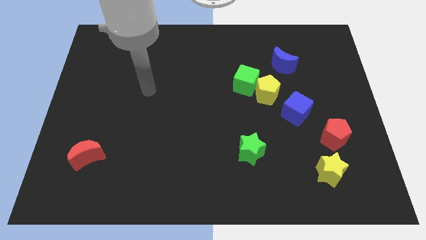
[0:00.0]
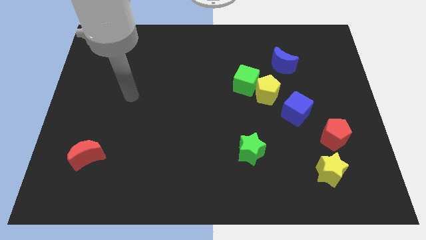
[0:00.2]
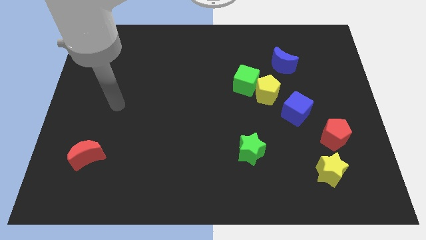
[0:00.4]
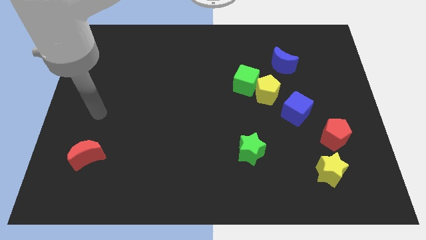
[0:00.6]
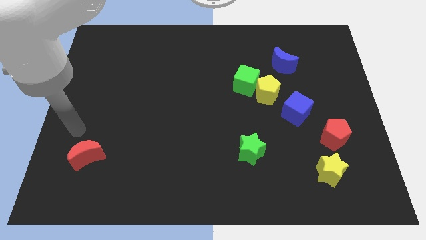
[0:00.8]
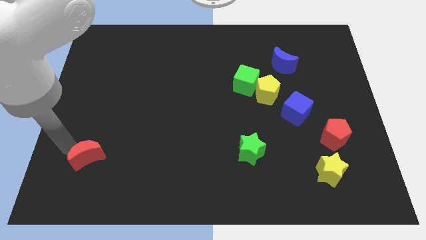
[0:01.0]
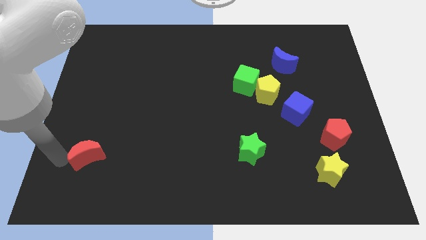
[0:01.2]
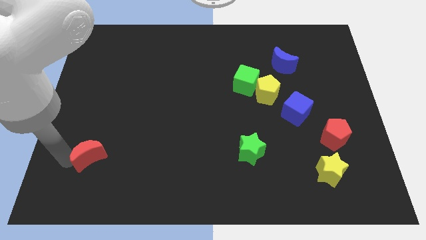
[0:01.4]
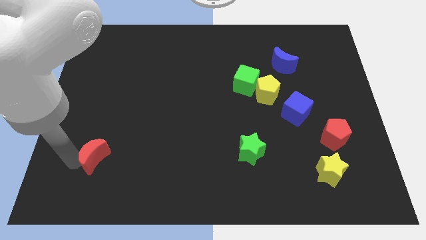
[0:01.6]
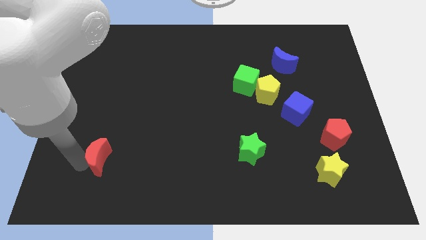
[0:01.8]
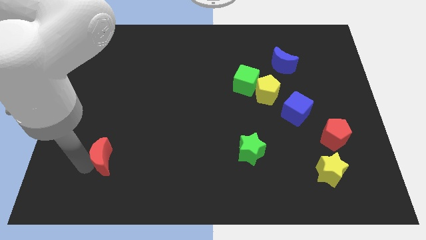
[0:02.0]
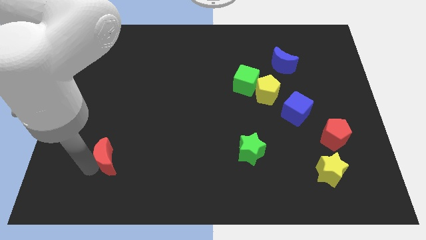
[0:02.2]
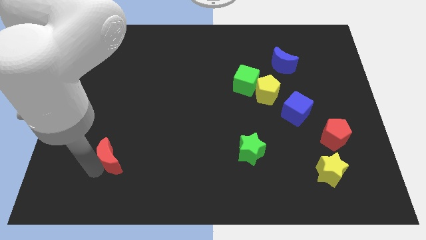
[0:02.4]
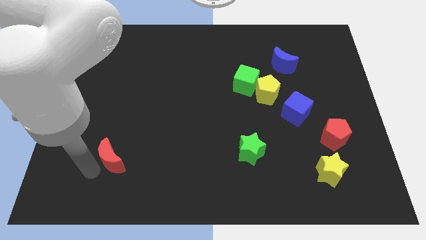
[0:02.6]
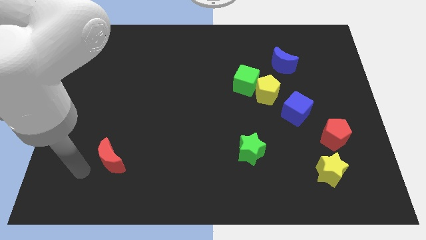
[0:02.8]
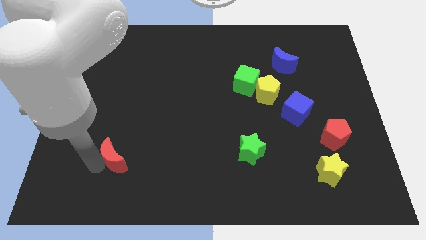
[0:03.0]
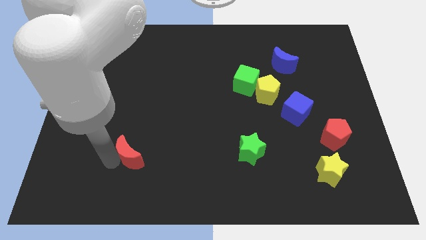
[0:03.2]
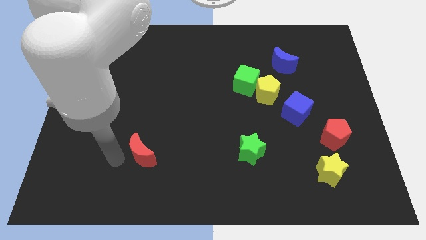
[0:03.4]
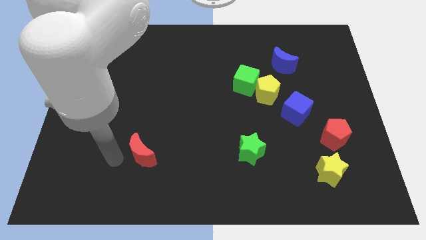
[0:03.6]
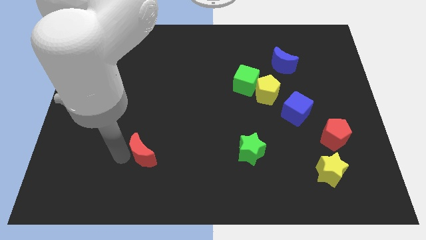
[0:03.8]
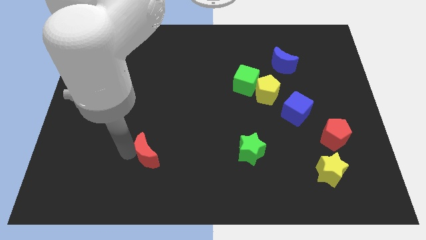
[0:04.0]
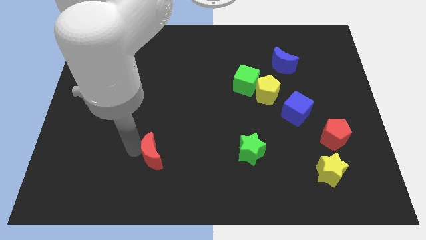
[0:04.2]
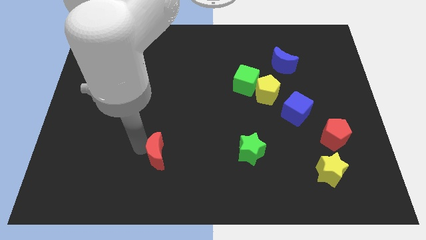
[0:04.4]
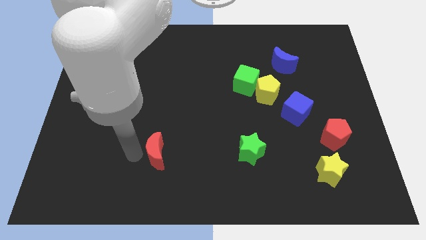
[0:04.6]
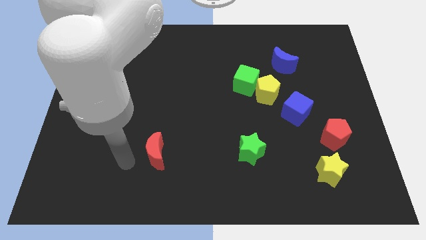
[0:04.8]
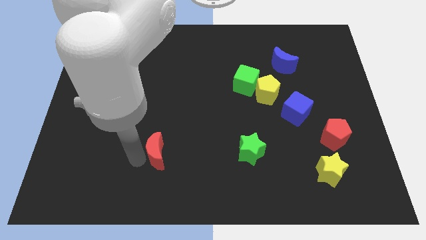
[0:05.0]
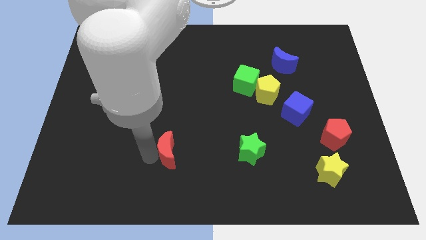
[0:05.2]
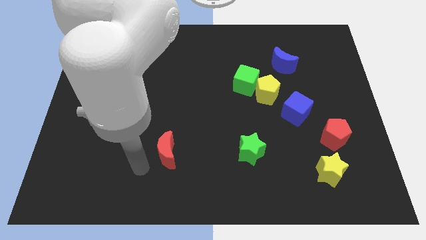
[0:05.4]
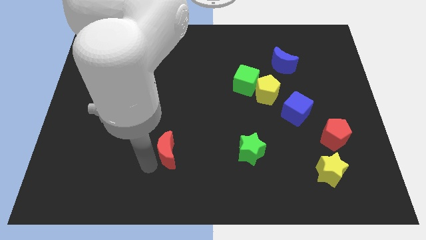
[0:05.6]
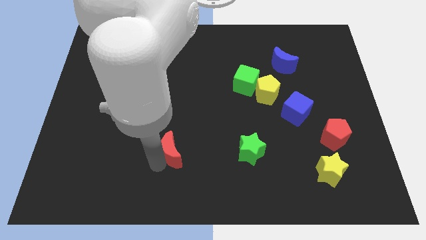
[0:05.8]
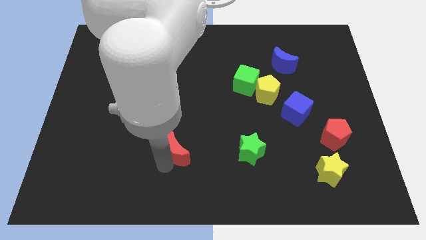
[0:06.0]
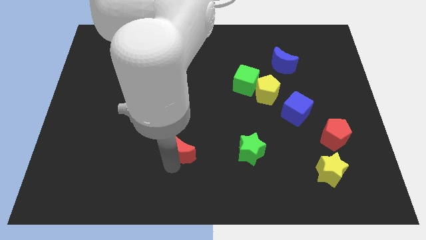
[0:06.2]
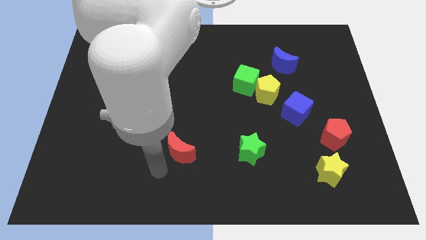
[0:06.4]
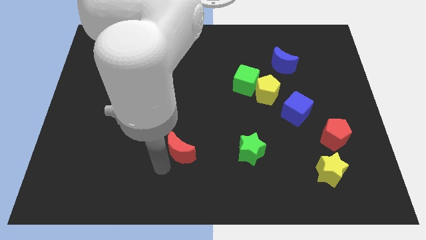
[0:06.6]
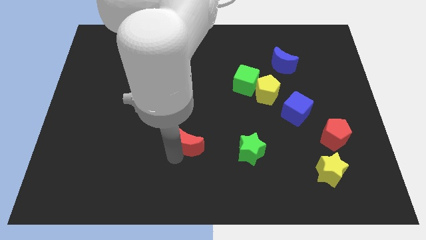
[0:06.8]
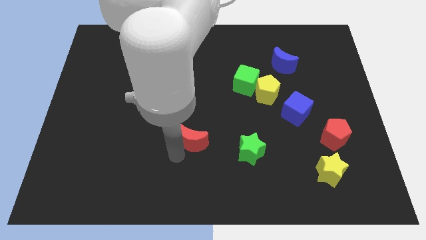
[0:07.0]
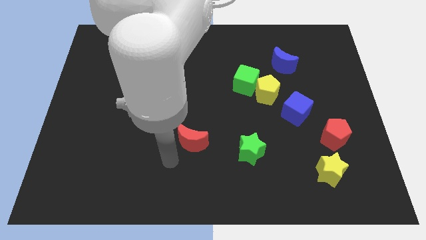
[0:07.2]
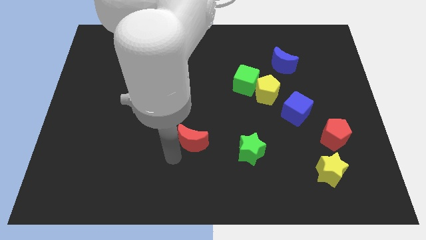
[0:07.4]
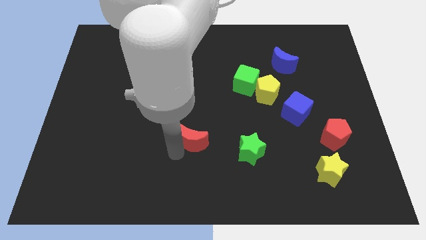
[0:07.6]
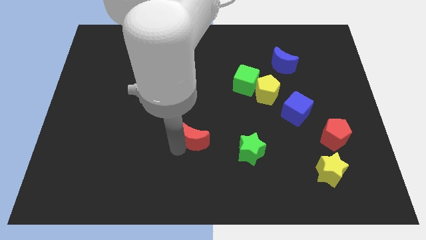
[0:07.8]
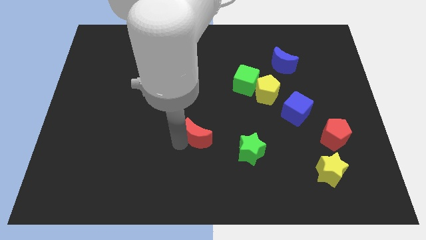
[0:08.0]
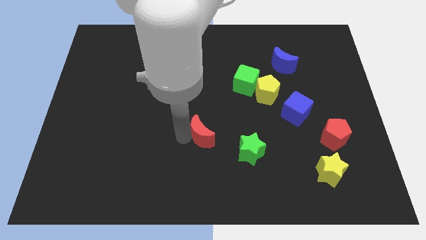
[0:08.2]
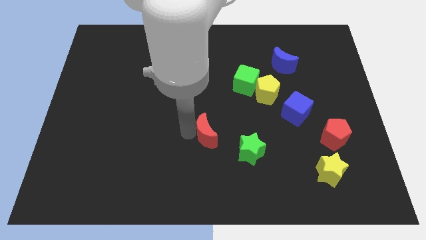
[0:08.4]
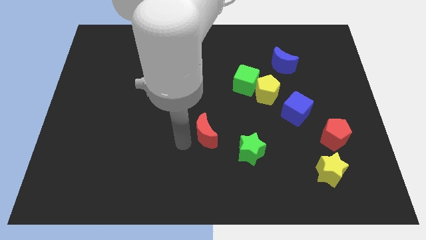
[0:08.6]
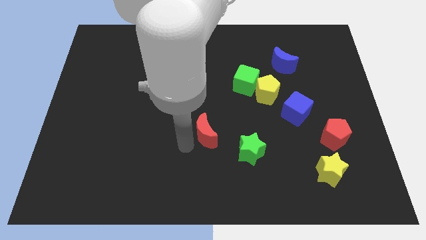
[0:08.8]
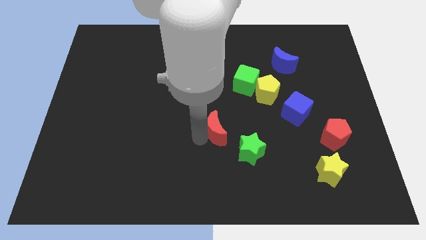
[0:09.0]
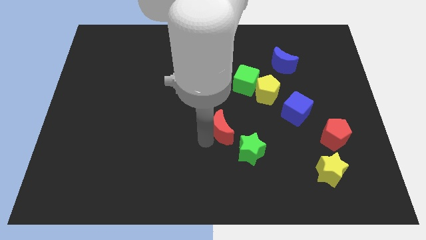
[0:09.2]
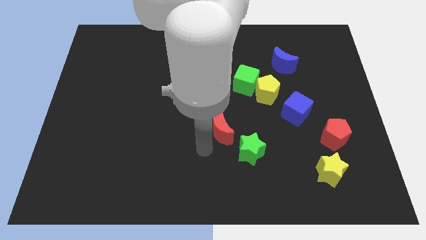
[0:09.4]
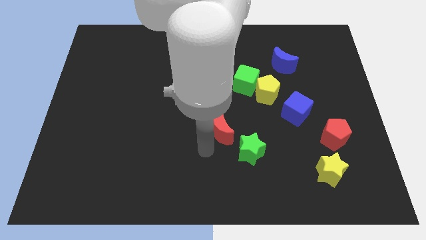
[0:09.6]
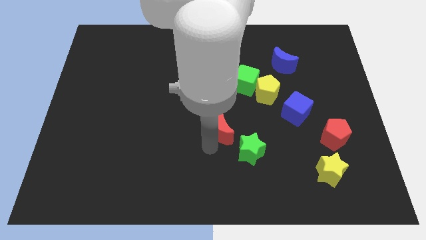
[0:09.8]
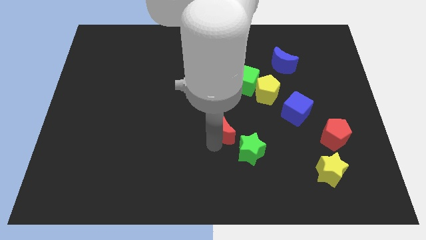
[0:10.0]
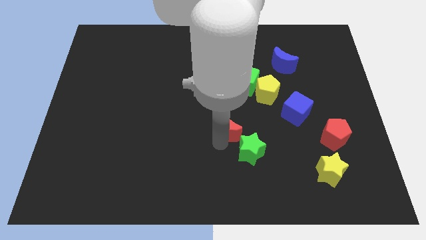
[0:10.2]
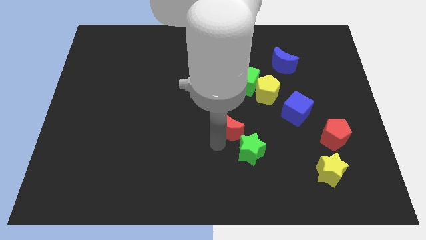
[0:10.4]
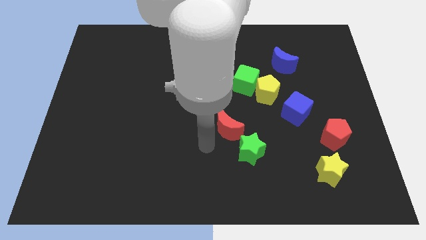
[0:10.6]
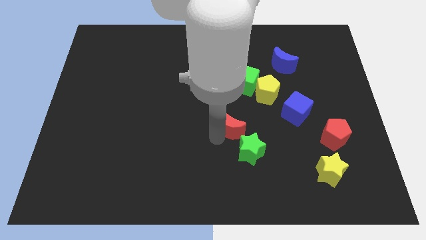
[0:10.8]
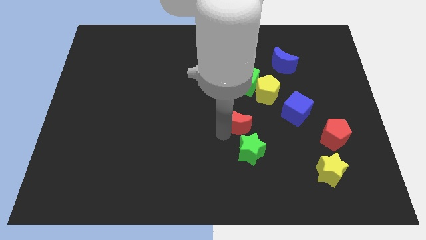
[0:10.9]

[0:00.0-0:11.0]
push the red moon left of the blue cube

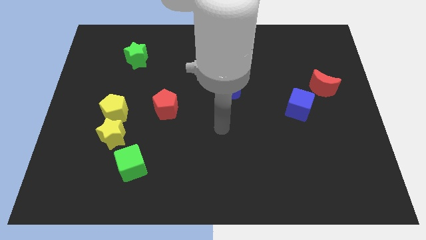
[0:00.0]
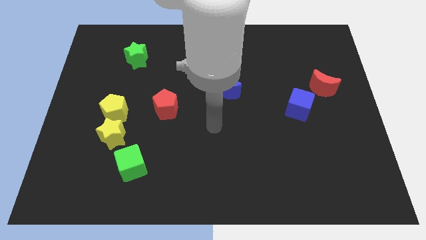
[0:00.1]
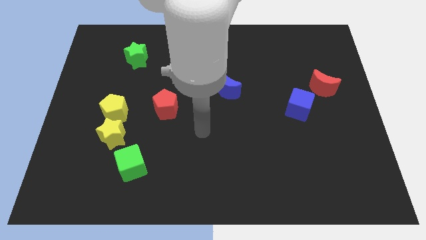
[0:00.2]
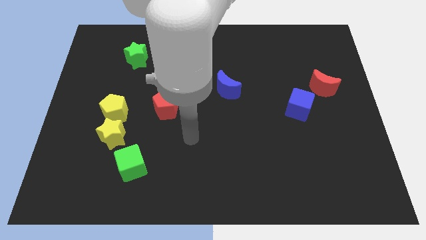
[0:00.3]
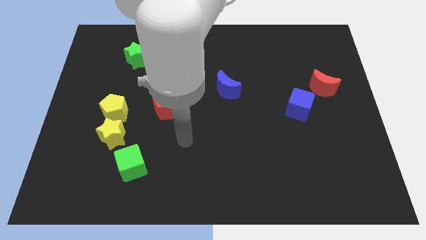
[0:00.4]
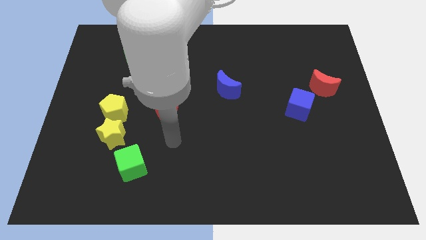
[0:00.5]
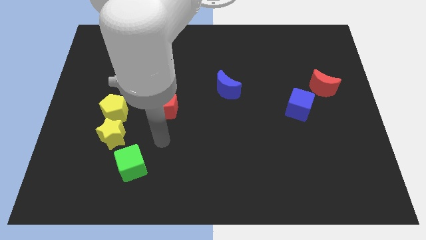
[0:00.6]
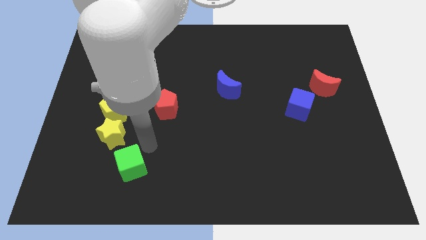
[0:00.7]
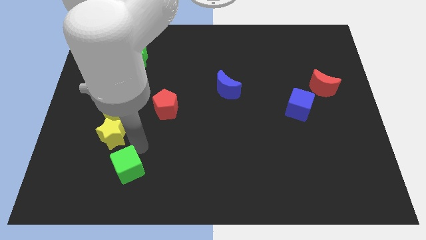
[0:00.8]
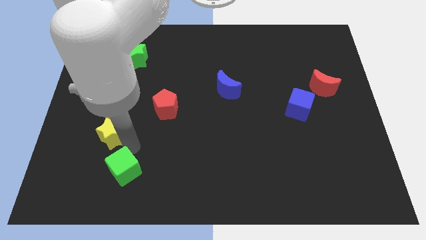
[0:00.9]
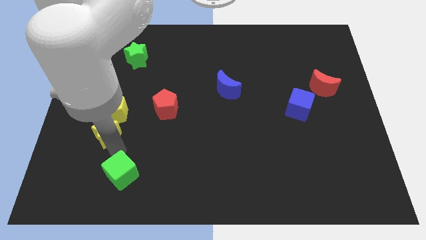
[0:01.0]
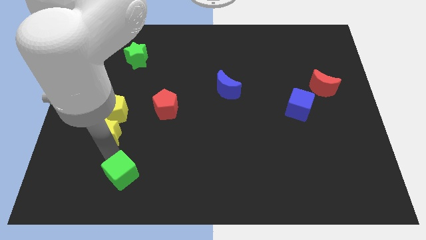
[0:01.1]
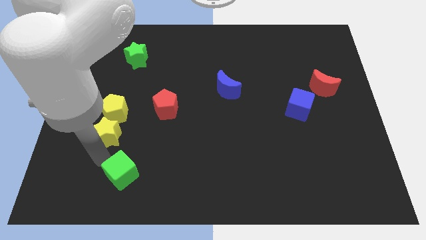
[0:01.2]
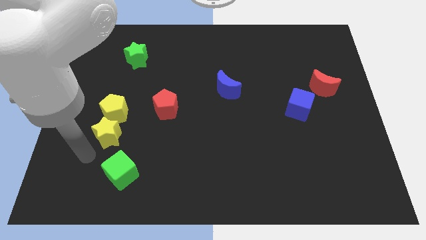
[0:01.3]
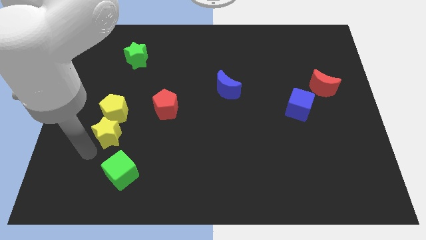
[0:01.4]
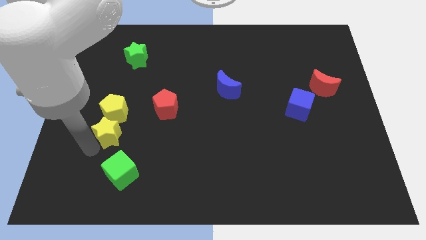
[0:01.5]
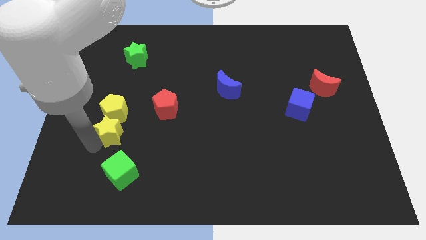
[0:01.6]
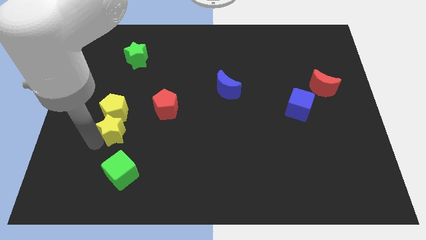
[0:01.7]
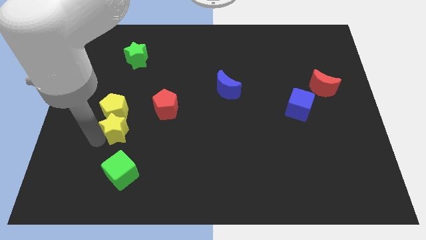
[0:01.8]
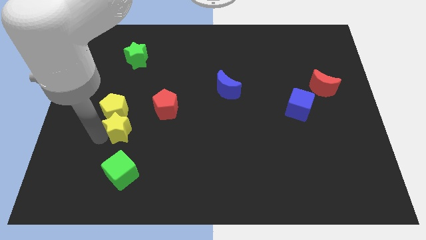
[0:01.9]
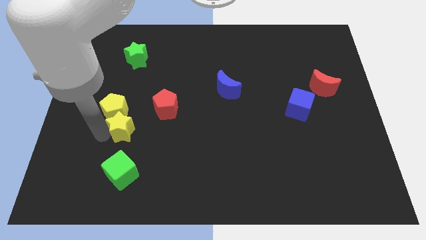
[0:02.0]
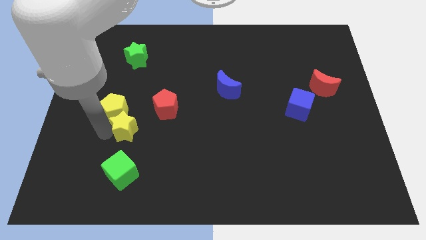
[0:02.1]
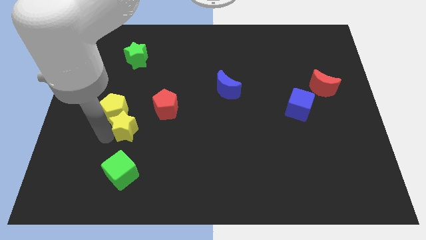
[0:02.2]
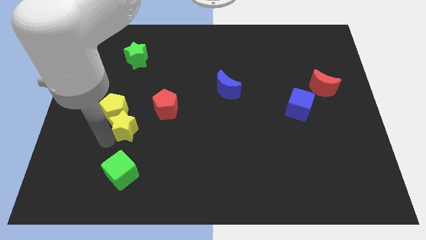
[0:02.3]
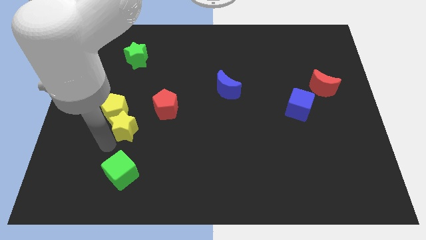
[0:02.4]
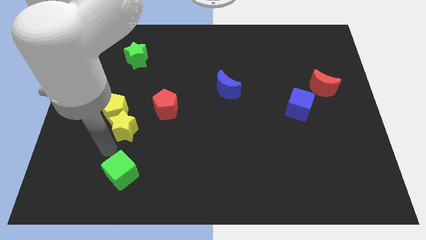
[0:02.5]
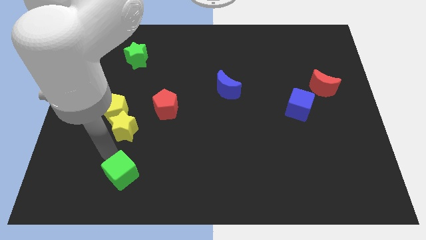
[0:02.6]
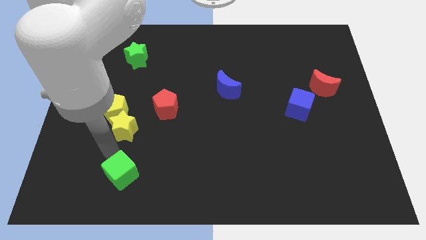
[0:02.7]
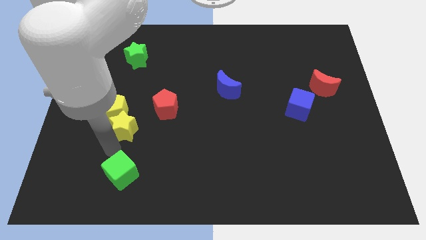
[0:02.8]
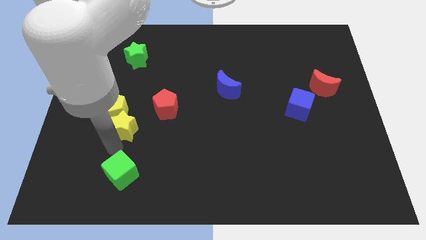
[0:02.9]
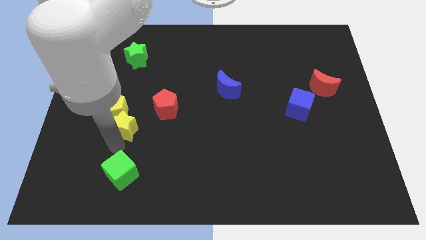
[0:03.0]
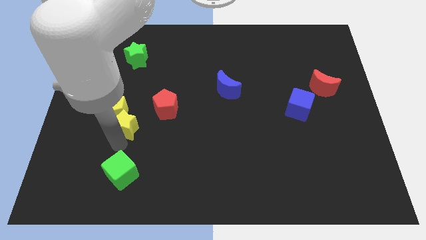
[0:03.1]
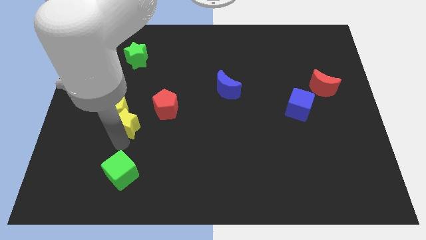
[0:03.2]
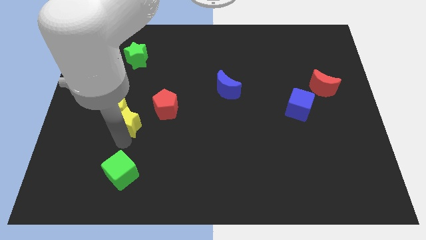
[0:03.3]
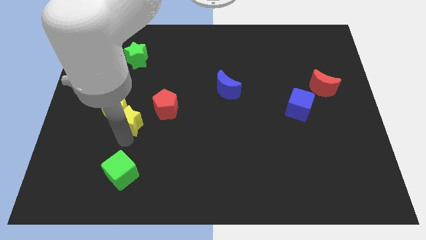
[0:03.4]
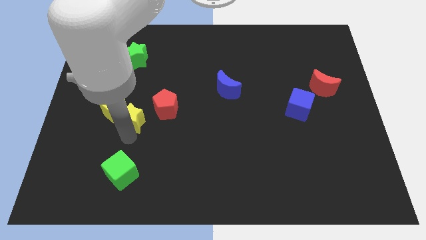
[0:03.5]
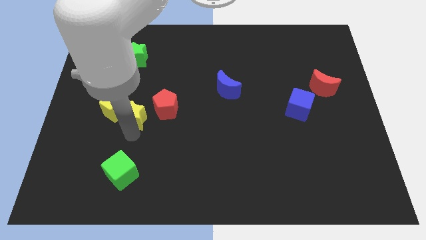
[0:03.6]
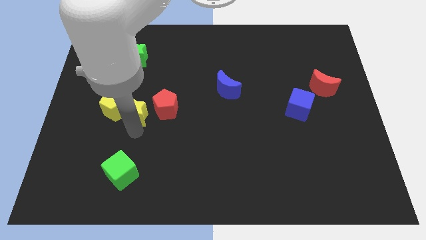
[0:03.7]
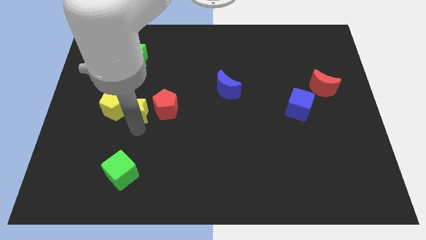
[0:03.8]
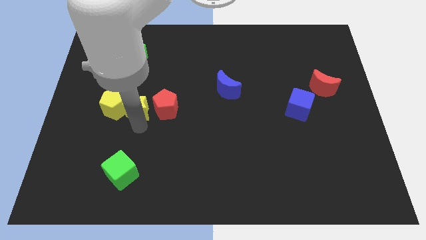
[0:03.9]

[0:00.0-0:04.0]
move the yellow star to the top right side of the yellow pentagon
